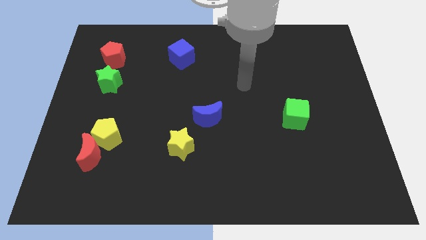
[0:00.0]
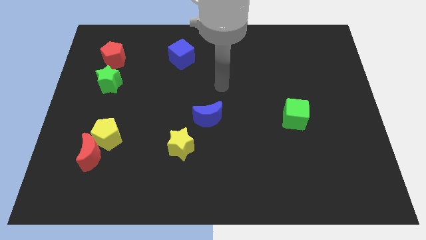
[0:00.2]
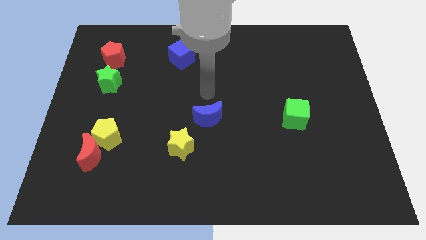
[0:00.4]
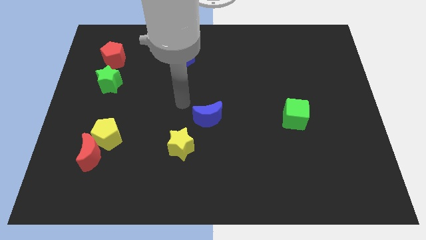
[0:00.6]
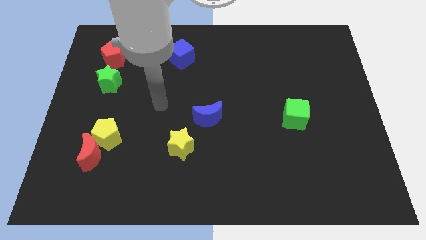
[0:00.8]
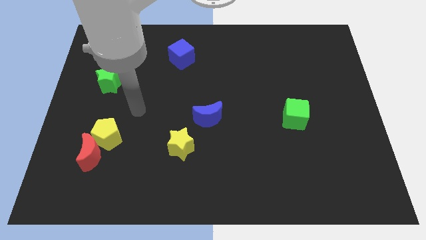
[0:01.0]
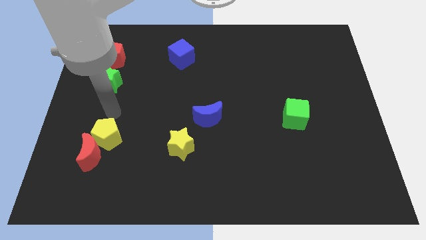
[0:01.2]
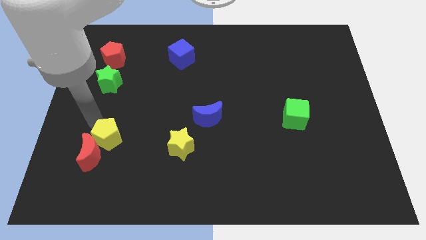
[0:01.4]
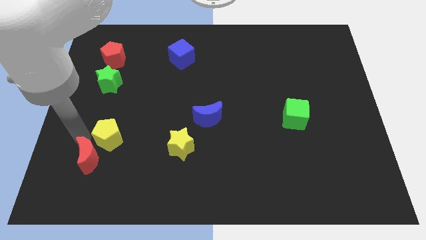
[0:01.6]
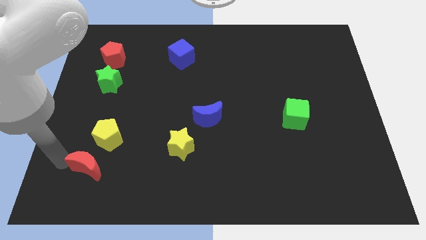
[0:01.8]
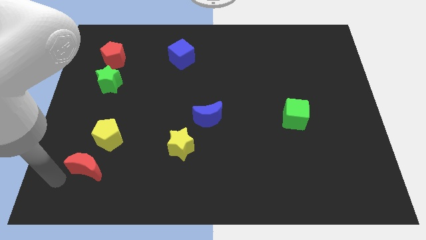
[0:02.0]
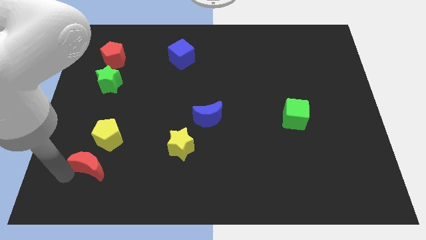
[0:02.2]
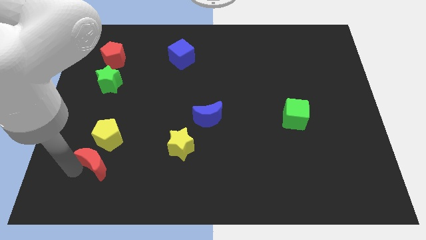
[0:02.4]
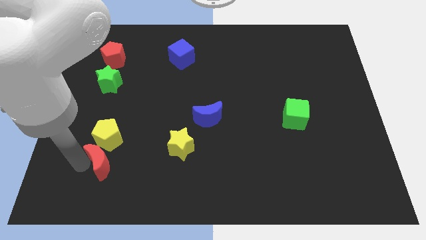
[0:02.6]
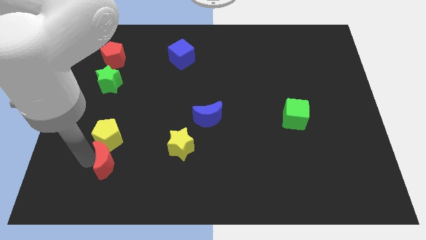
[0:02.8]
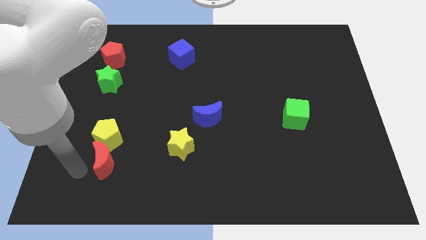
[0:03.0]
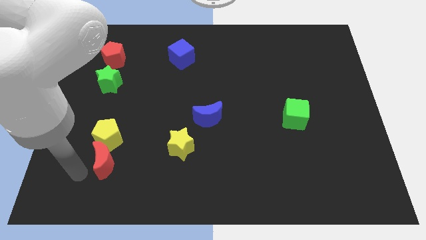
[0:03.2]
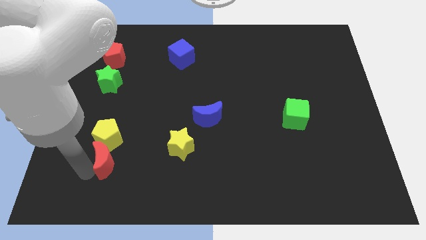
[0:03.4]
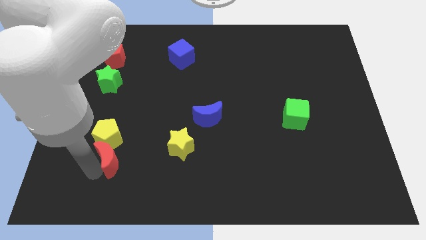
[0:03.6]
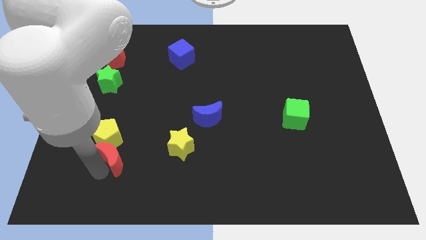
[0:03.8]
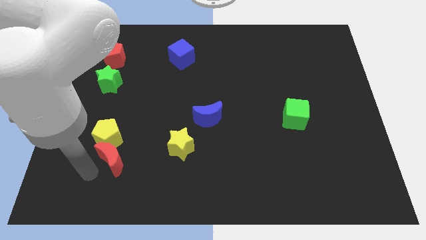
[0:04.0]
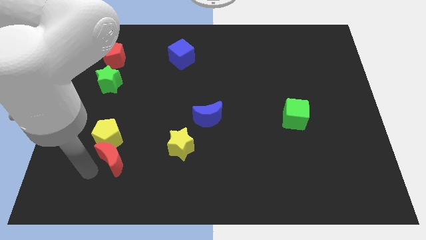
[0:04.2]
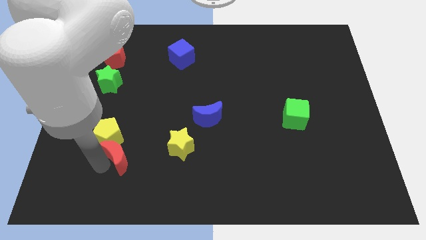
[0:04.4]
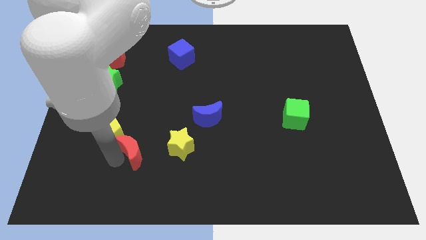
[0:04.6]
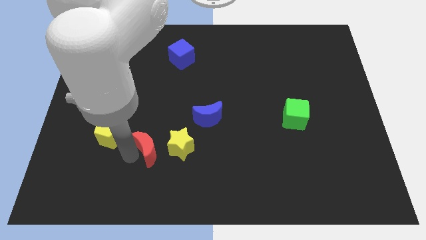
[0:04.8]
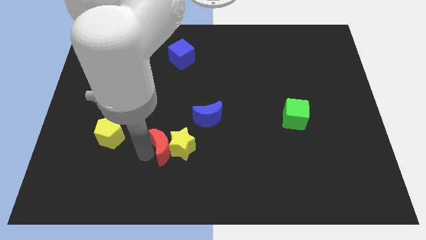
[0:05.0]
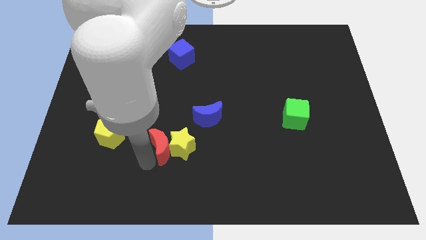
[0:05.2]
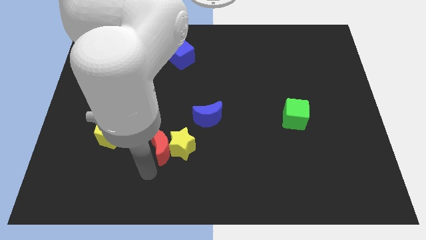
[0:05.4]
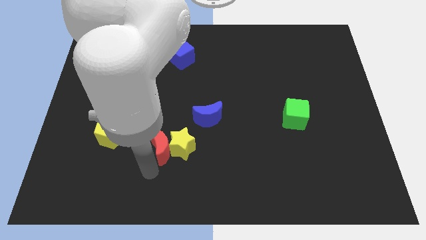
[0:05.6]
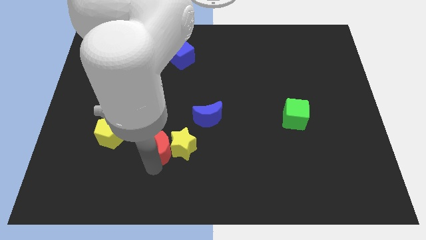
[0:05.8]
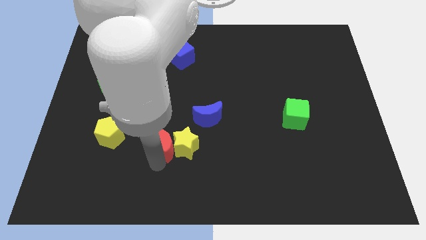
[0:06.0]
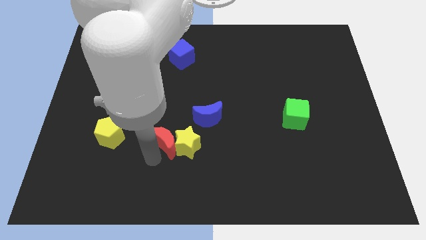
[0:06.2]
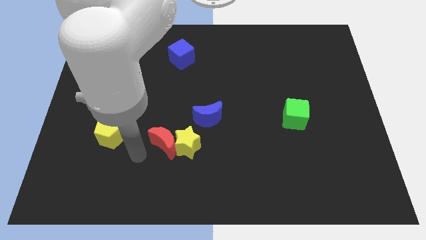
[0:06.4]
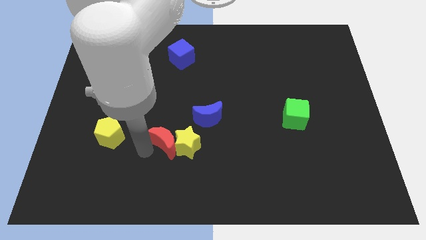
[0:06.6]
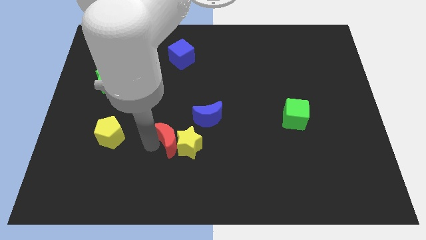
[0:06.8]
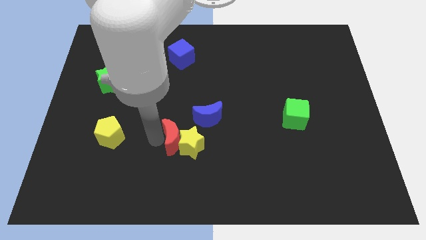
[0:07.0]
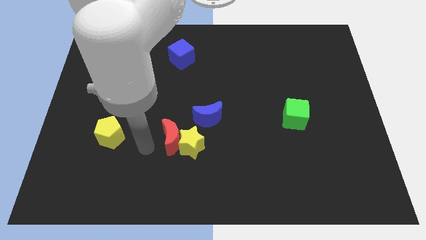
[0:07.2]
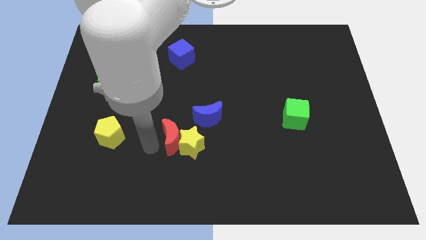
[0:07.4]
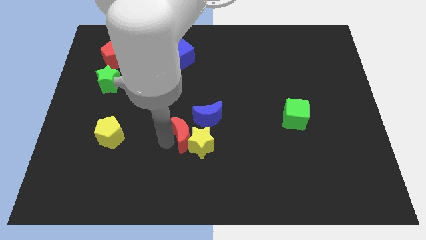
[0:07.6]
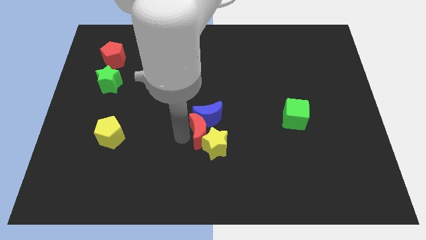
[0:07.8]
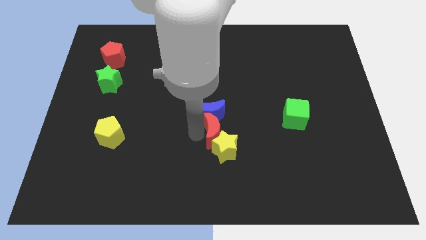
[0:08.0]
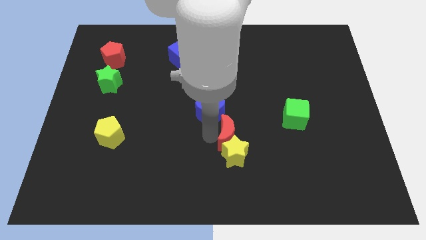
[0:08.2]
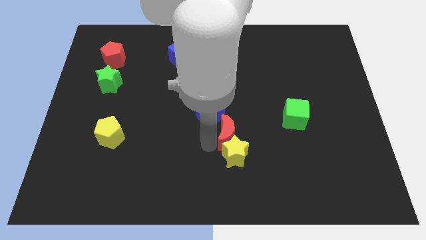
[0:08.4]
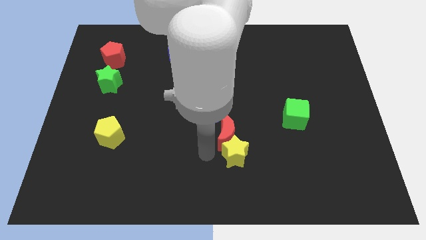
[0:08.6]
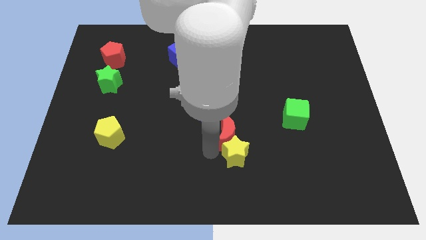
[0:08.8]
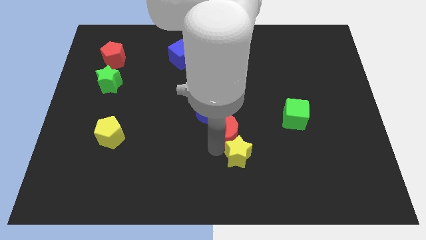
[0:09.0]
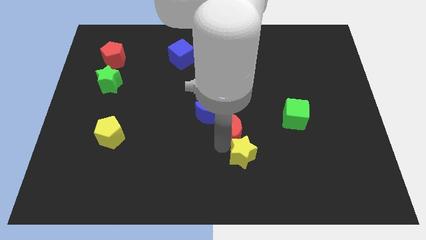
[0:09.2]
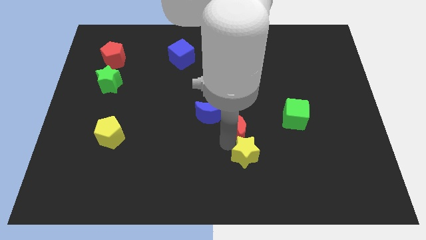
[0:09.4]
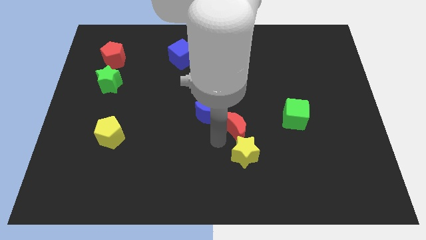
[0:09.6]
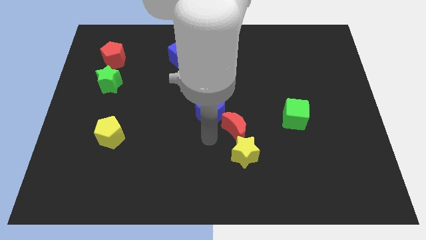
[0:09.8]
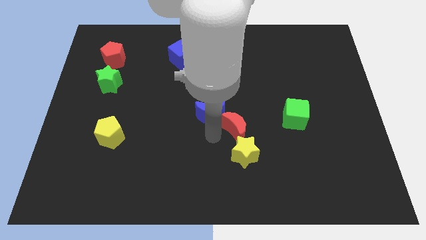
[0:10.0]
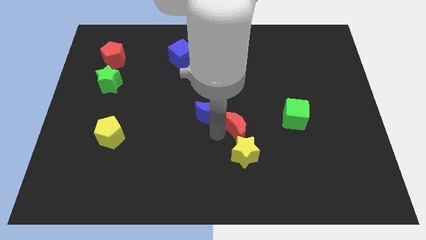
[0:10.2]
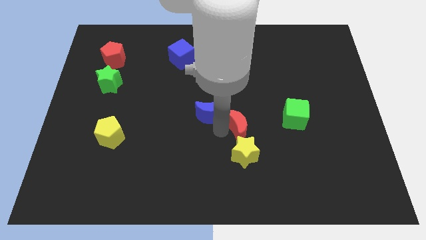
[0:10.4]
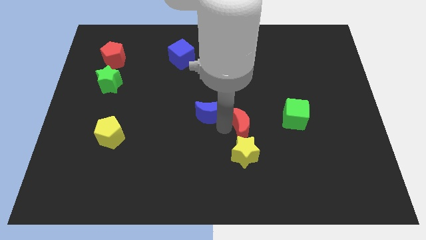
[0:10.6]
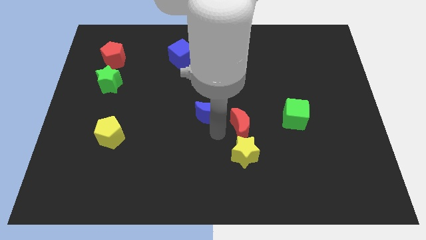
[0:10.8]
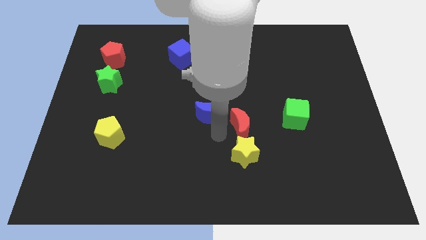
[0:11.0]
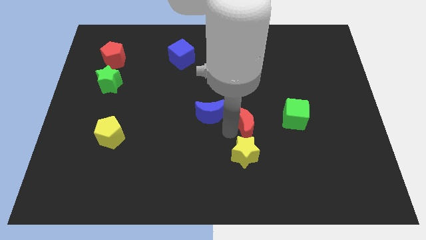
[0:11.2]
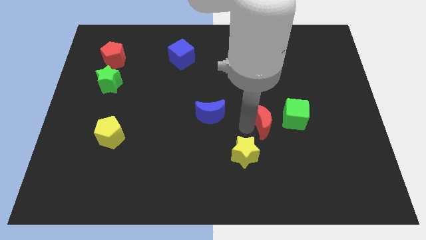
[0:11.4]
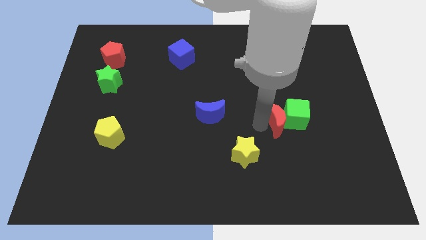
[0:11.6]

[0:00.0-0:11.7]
push the red moon towards the green cube

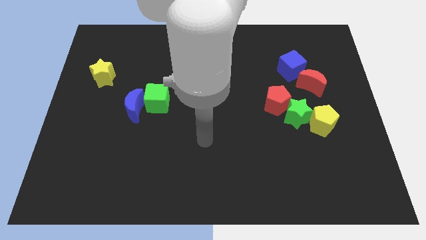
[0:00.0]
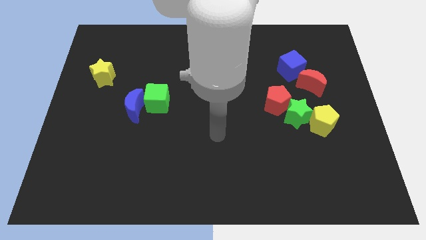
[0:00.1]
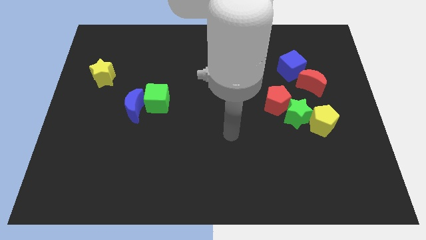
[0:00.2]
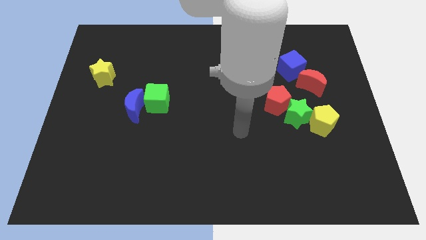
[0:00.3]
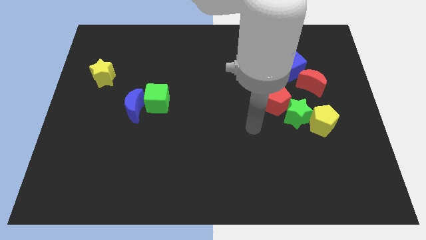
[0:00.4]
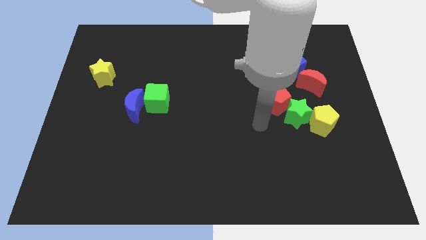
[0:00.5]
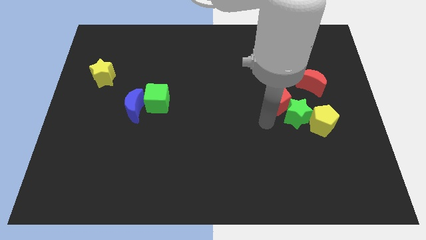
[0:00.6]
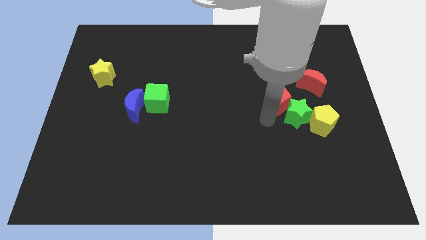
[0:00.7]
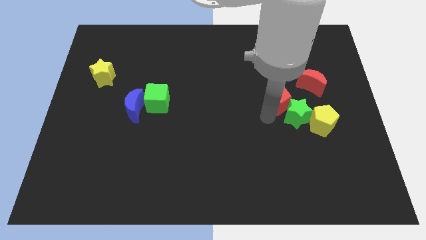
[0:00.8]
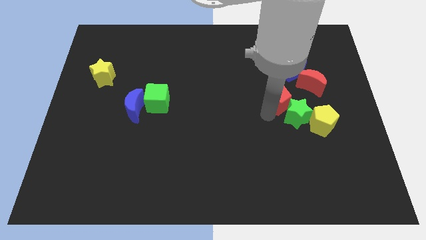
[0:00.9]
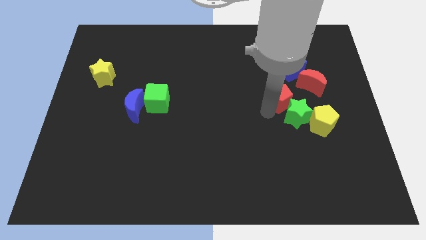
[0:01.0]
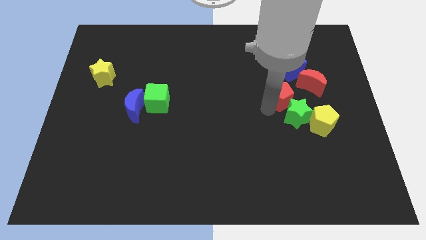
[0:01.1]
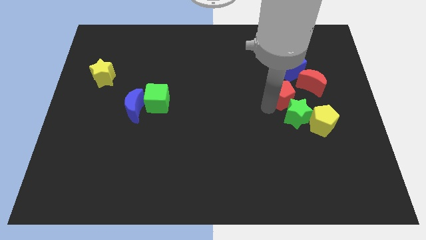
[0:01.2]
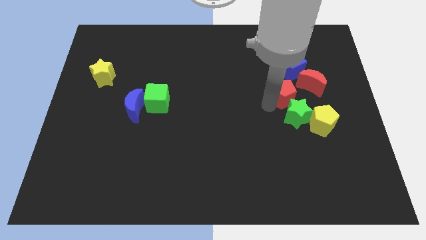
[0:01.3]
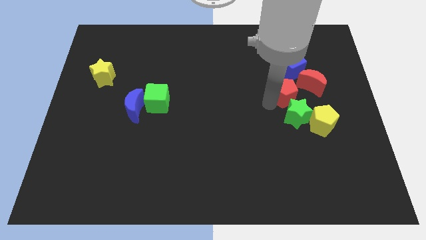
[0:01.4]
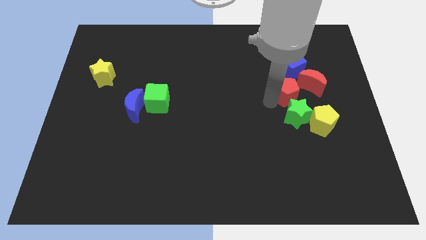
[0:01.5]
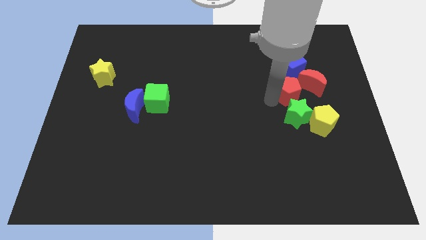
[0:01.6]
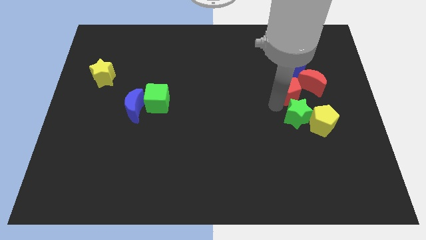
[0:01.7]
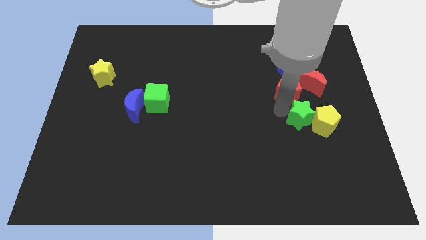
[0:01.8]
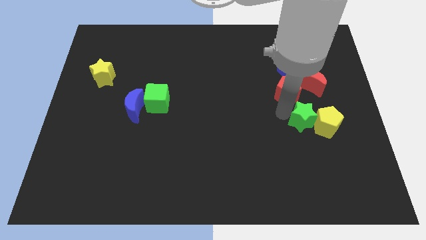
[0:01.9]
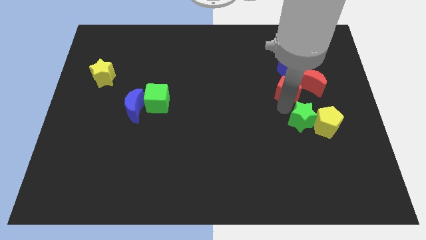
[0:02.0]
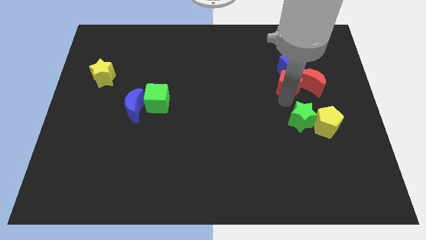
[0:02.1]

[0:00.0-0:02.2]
slide the red pentagon next to the blue cube
